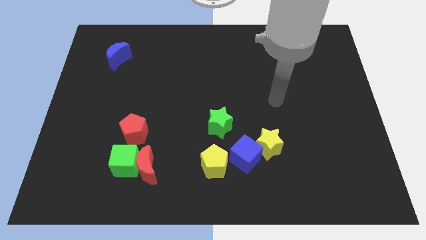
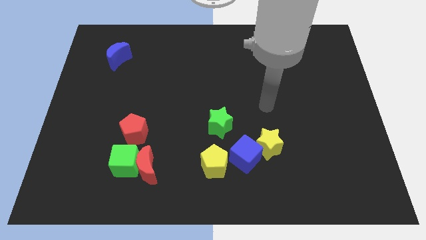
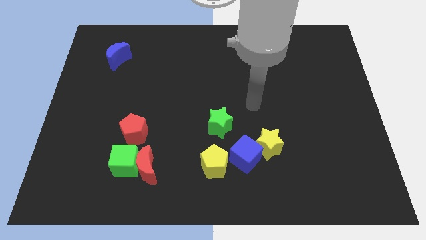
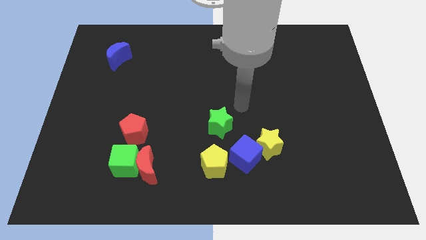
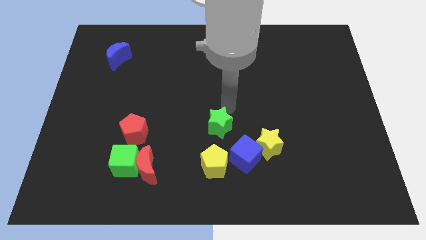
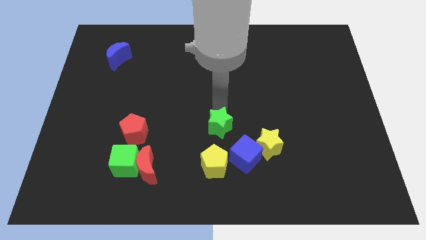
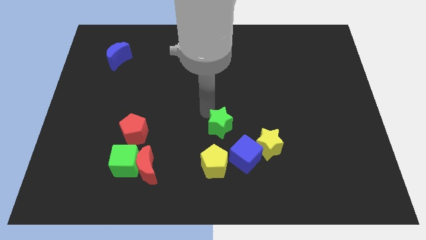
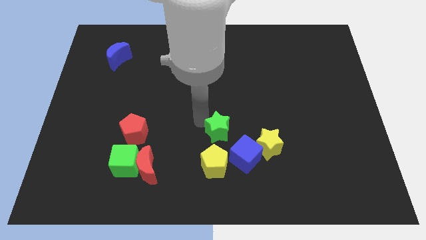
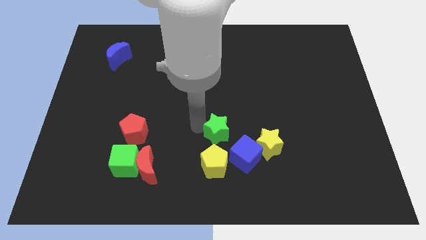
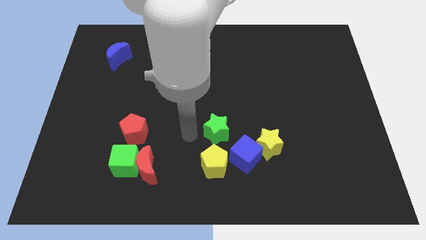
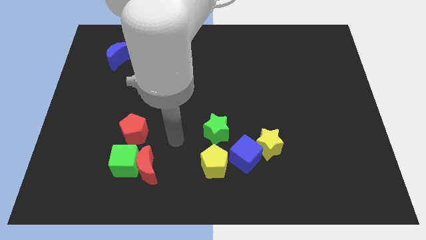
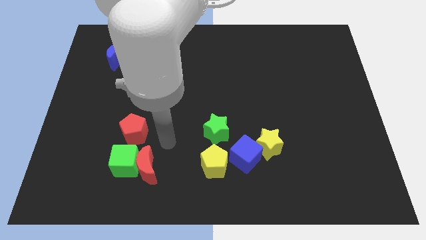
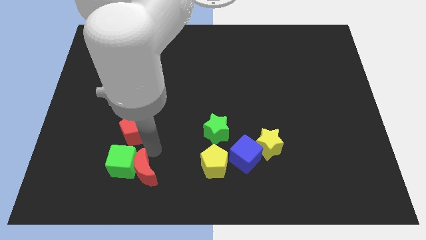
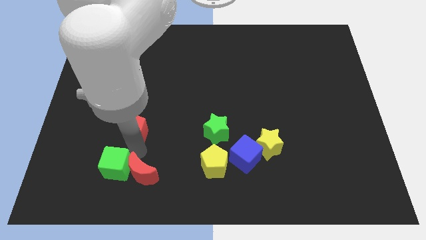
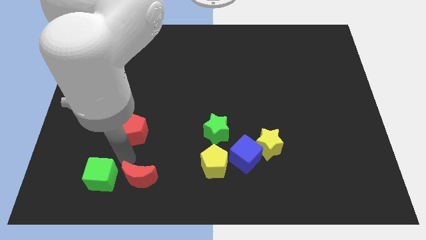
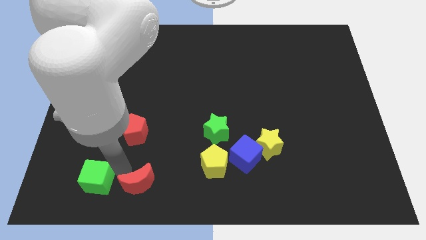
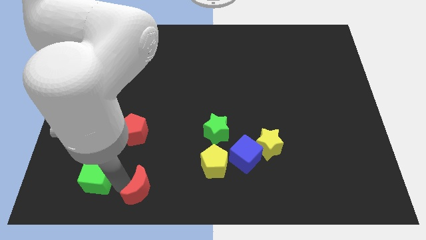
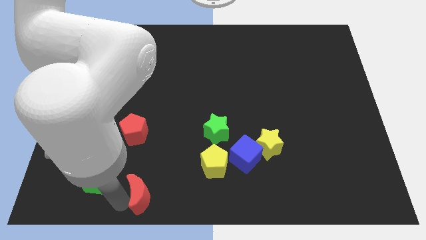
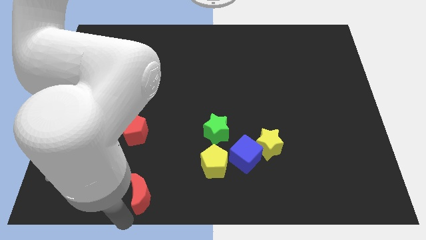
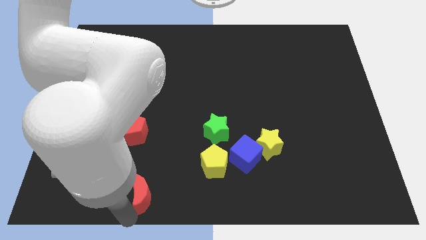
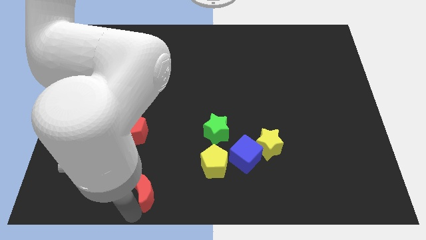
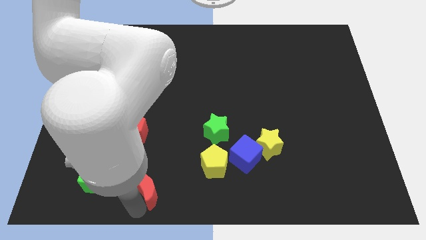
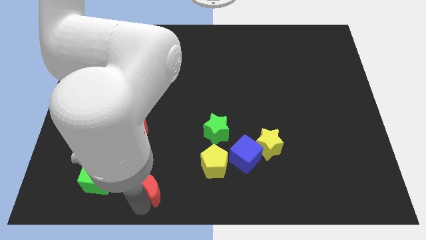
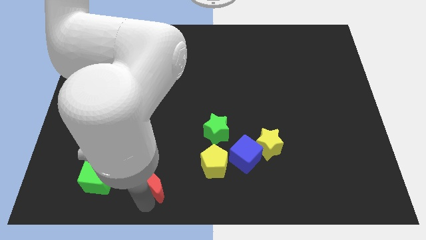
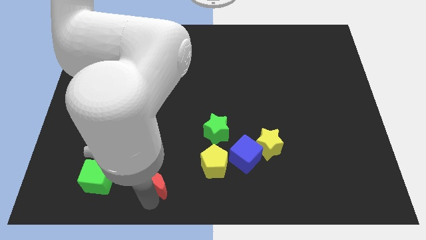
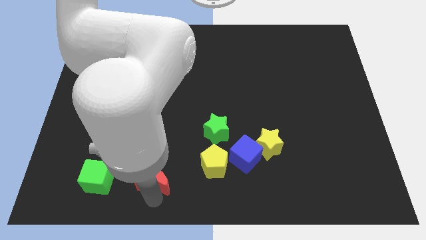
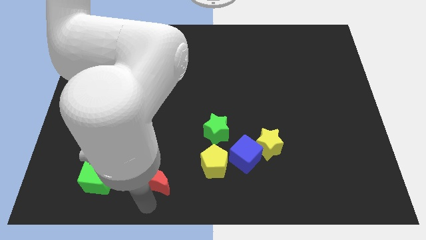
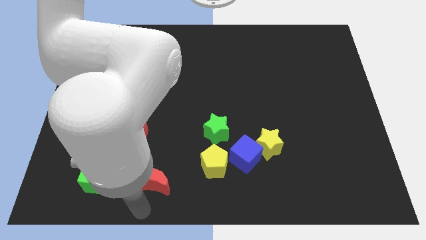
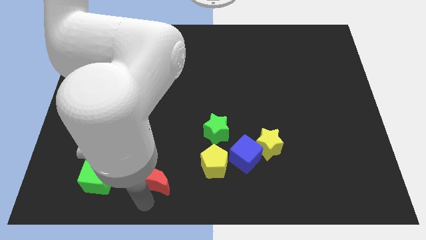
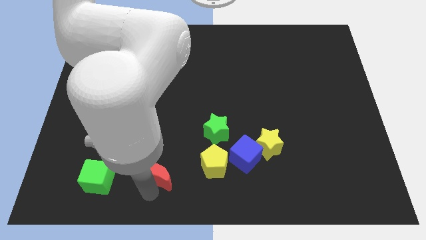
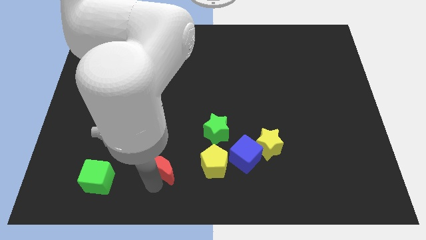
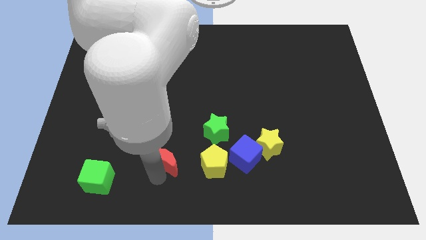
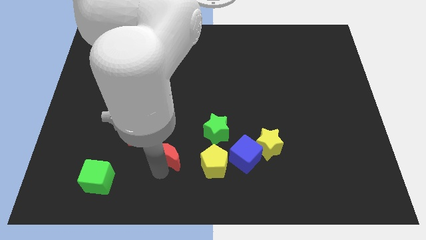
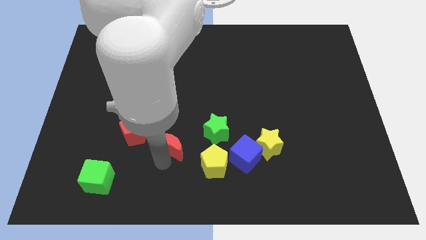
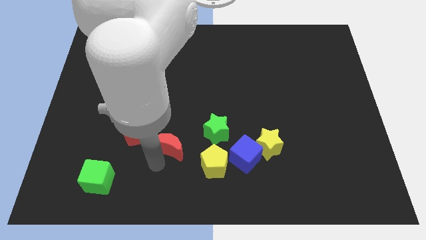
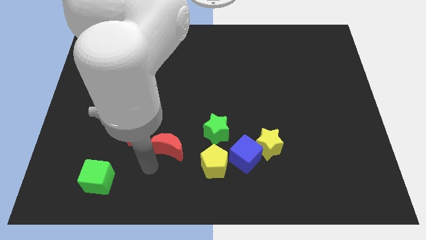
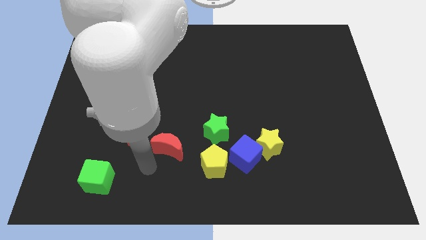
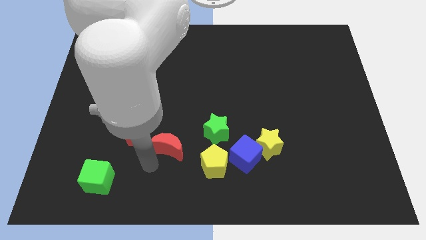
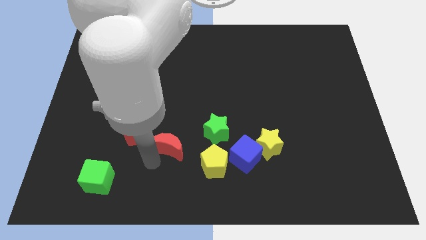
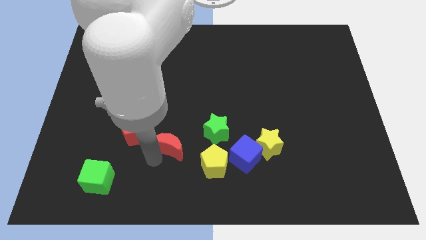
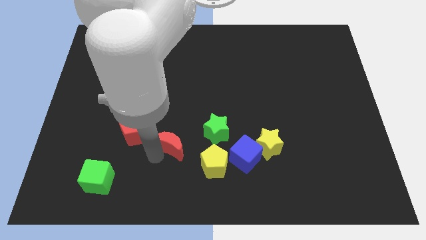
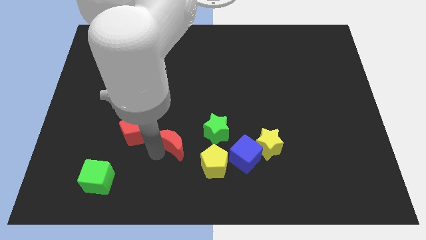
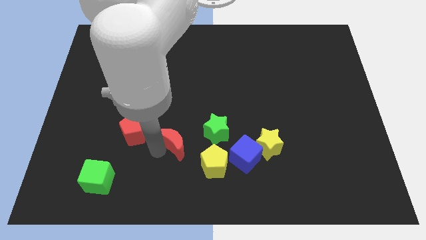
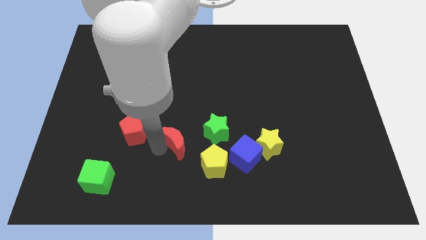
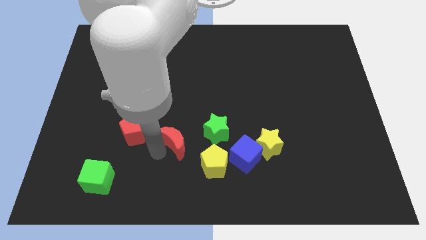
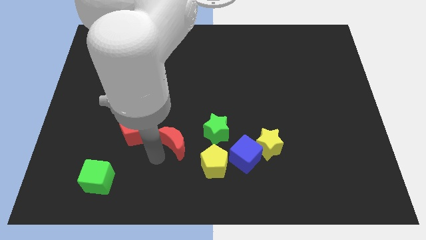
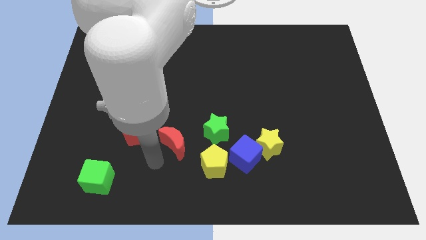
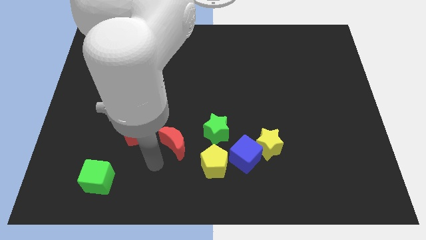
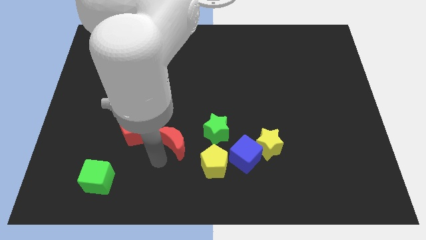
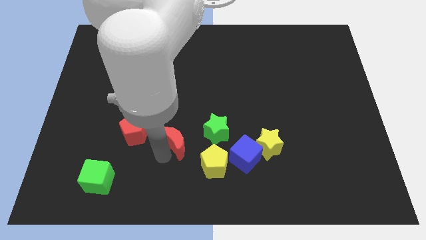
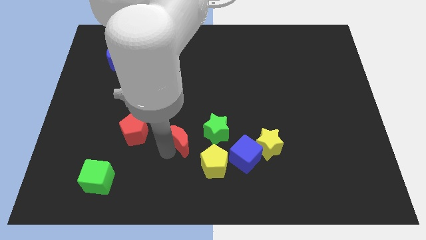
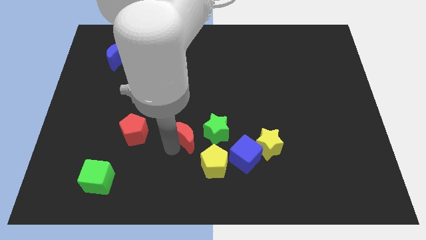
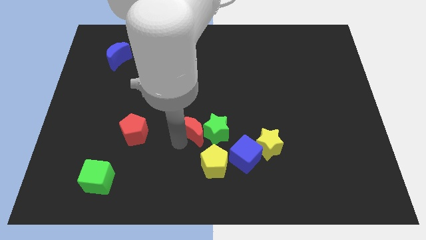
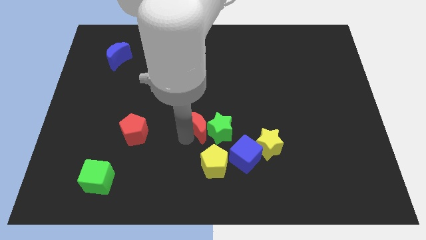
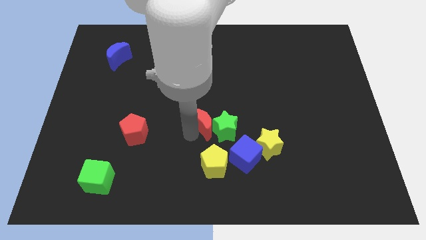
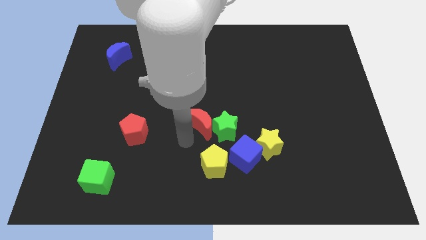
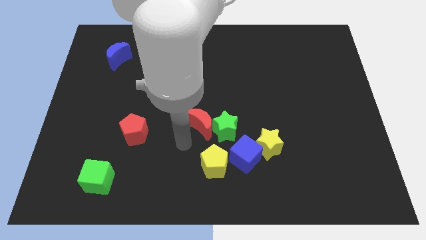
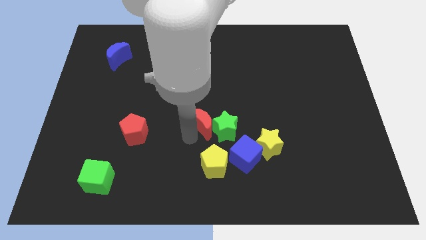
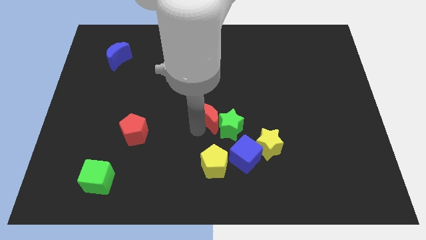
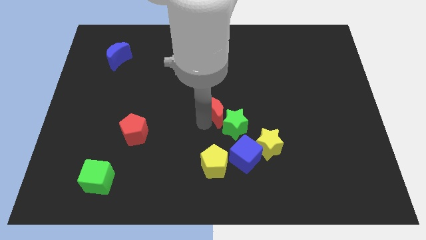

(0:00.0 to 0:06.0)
slide the red moon upwards and then right

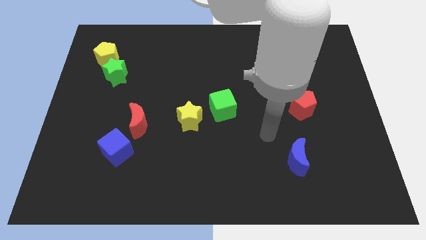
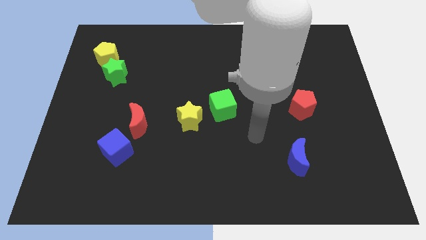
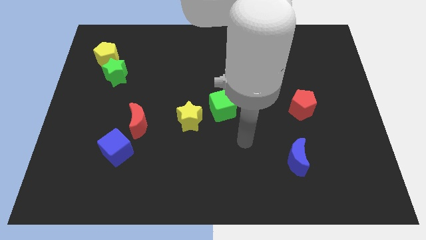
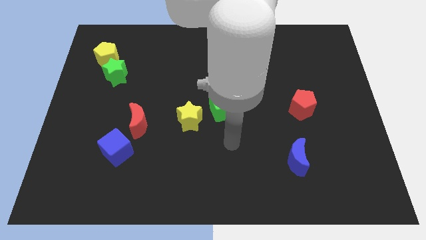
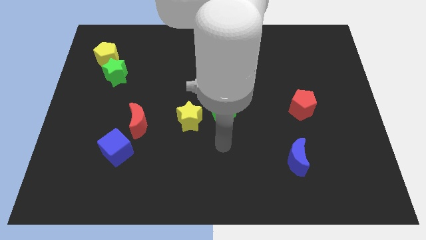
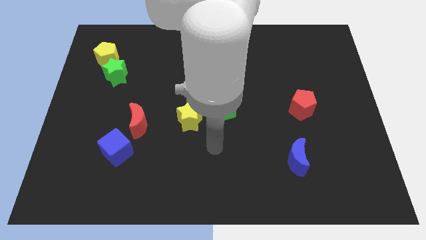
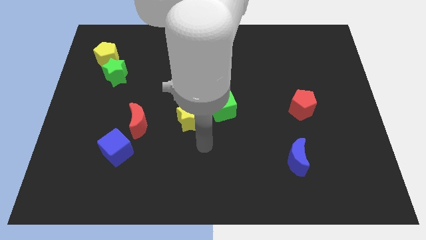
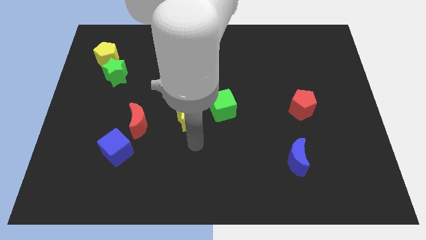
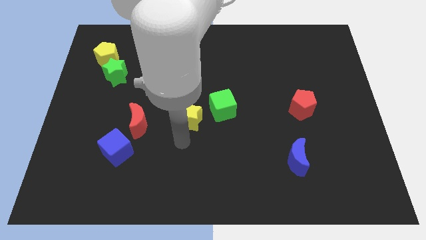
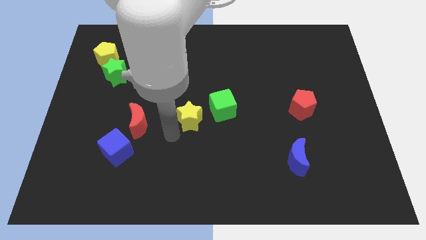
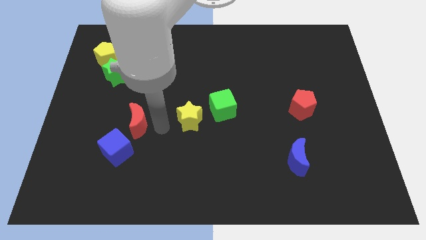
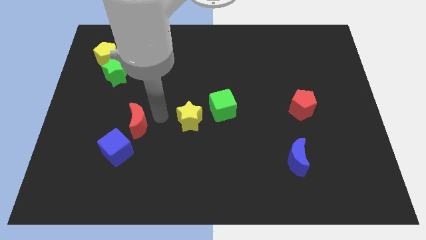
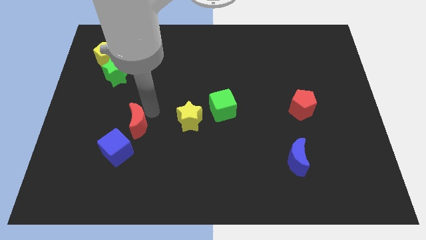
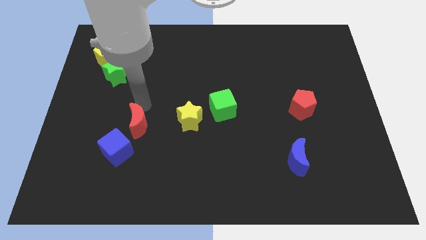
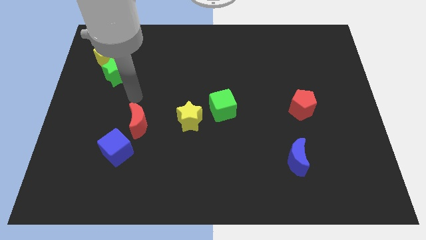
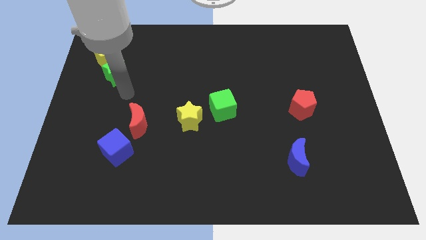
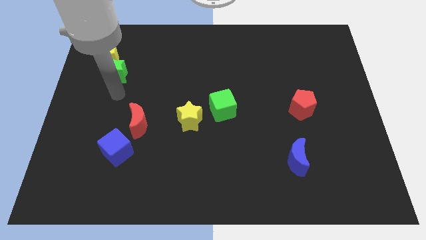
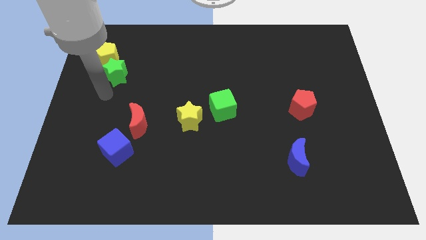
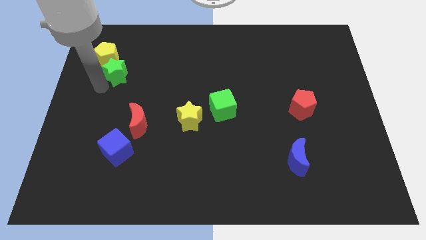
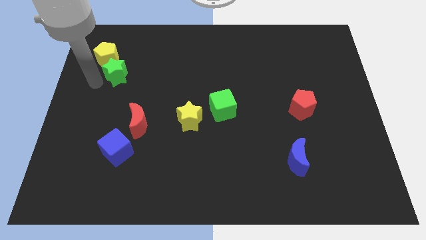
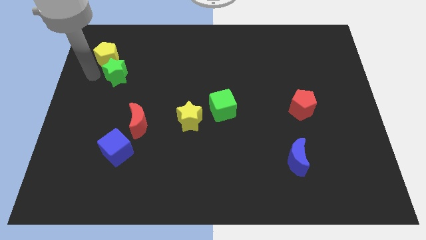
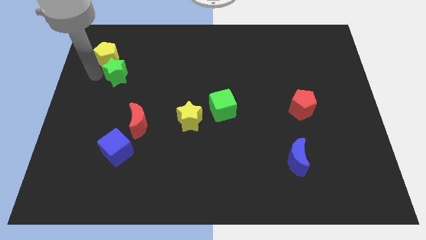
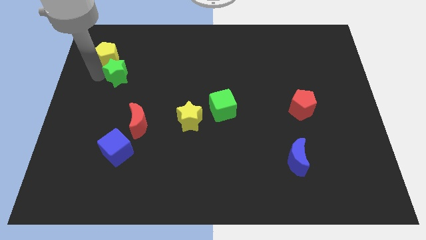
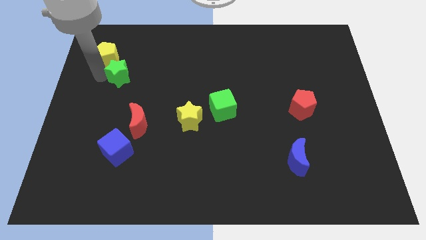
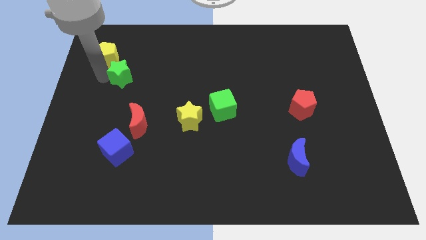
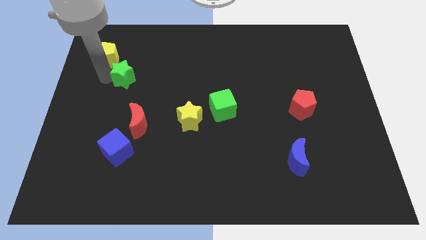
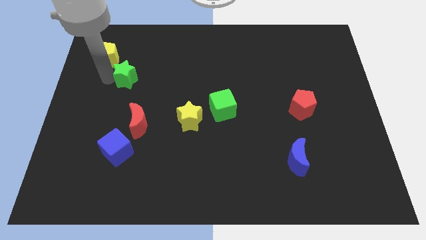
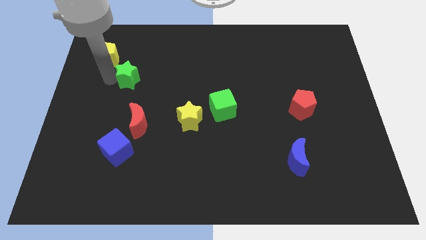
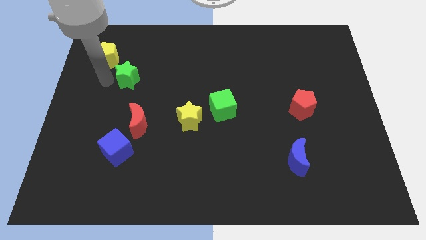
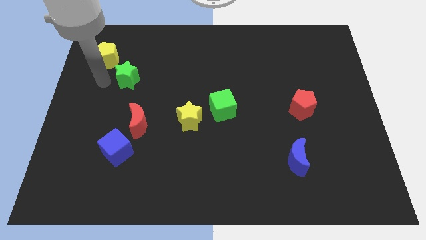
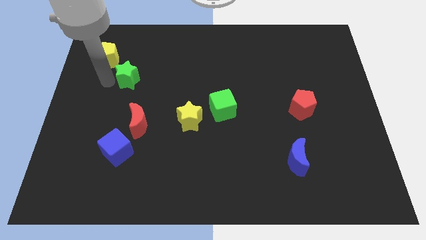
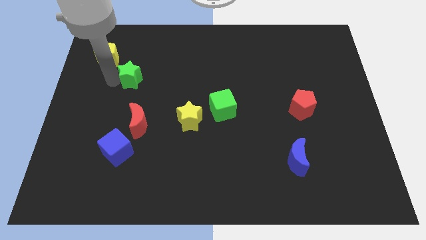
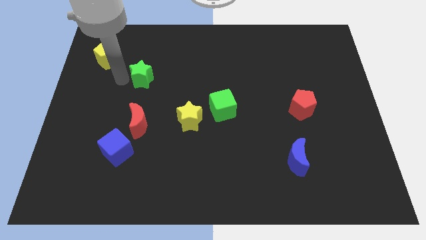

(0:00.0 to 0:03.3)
move the green star right a little
